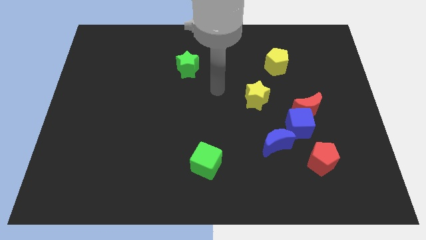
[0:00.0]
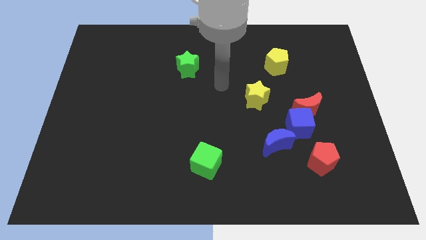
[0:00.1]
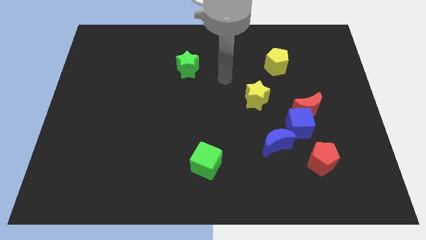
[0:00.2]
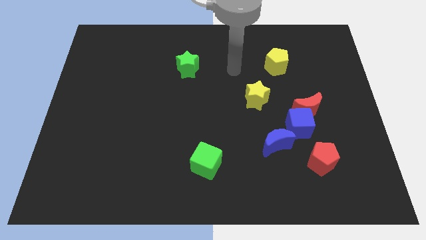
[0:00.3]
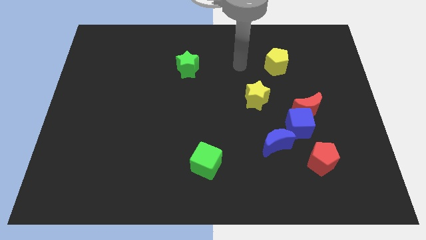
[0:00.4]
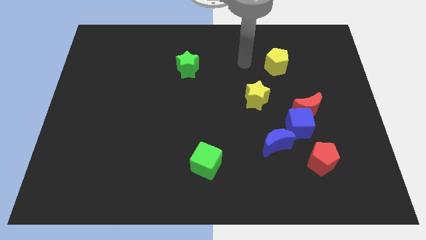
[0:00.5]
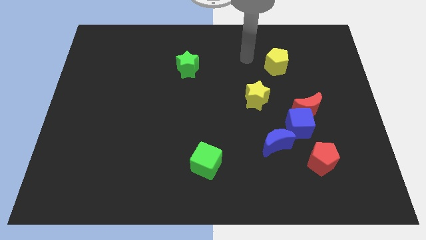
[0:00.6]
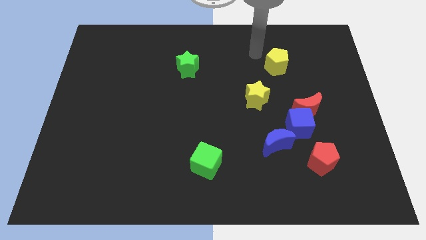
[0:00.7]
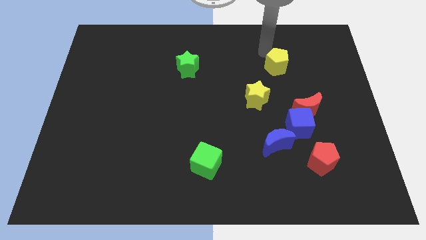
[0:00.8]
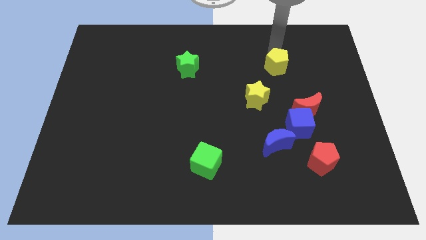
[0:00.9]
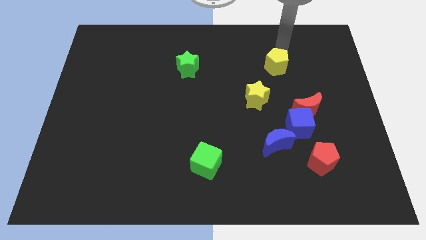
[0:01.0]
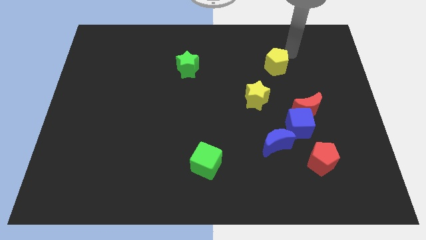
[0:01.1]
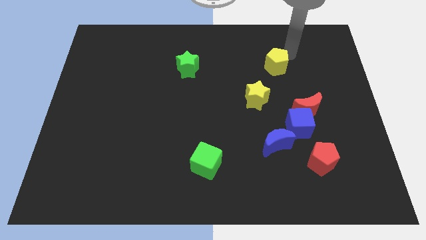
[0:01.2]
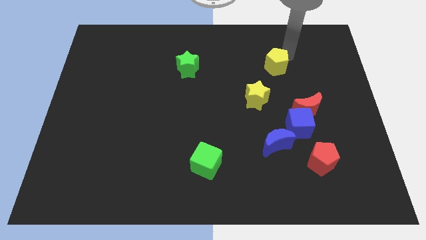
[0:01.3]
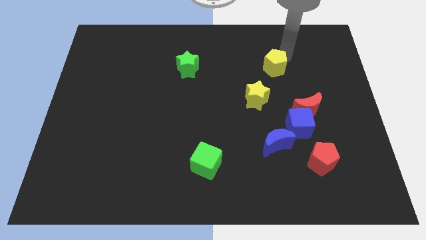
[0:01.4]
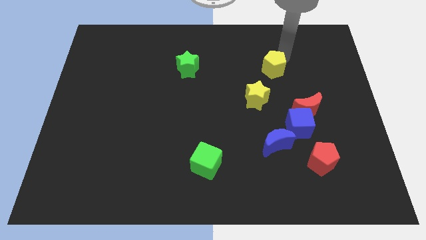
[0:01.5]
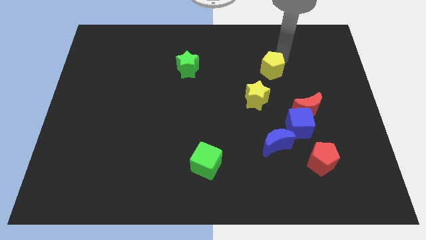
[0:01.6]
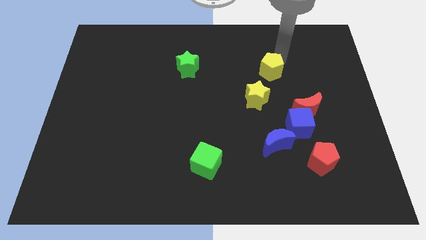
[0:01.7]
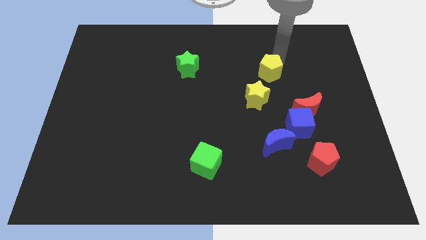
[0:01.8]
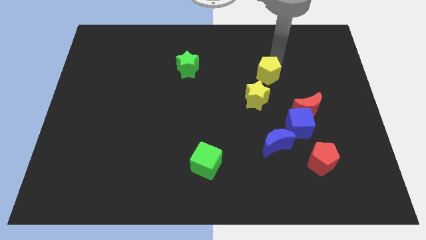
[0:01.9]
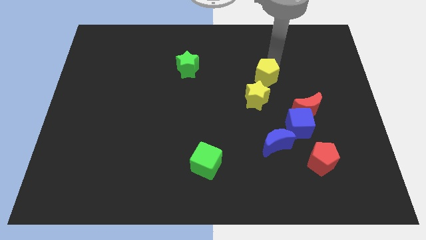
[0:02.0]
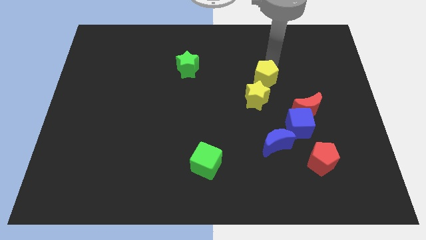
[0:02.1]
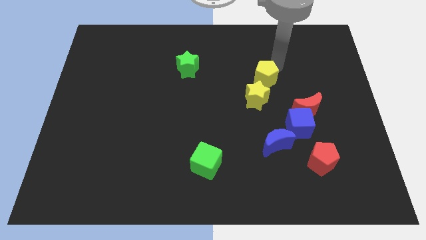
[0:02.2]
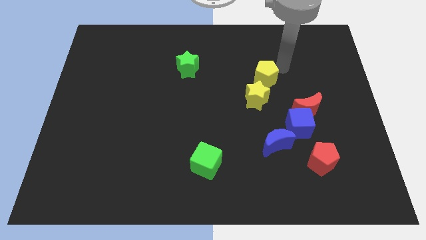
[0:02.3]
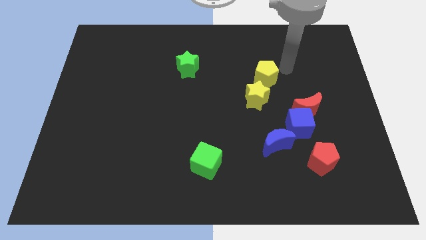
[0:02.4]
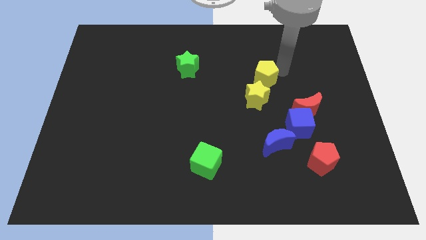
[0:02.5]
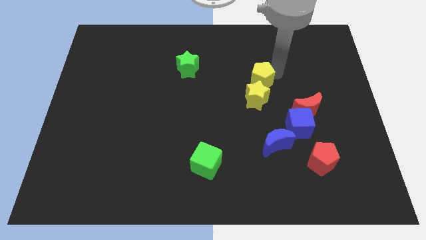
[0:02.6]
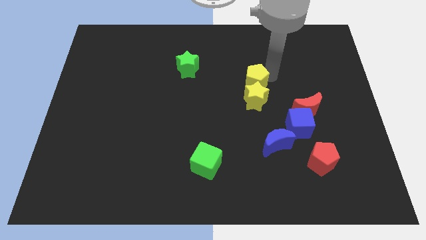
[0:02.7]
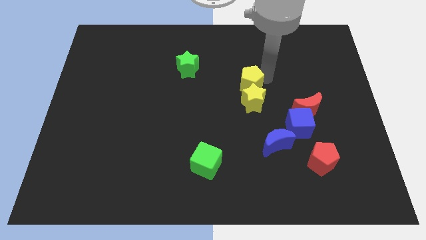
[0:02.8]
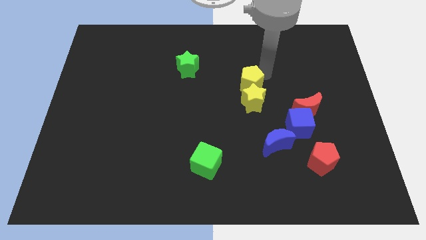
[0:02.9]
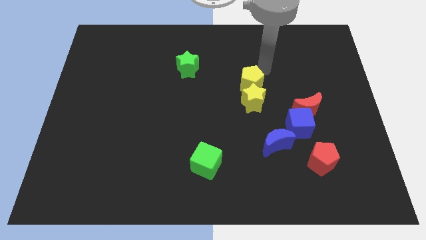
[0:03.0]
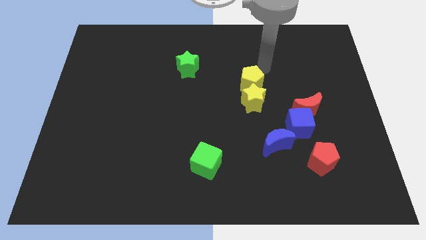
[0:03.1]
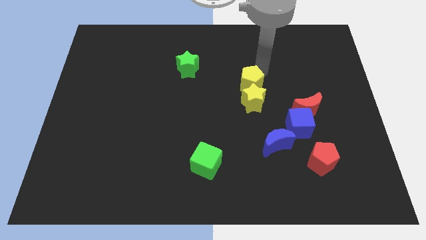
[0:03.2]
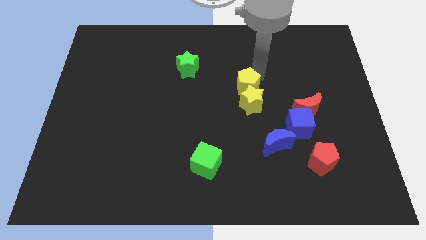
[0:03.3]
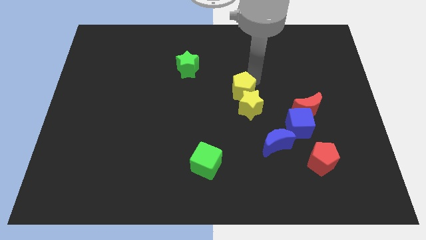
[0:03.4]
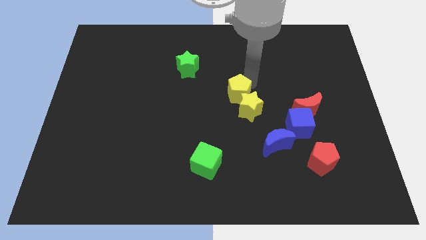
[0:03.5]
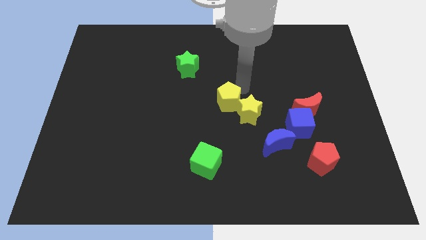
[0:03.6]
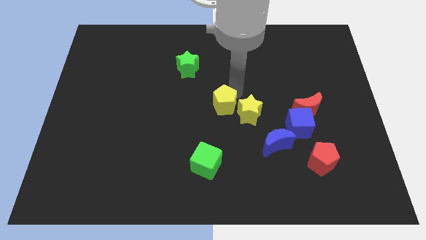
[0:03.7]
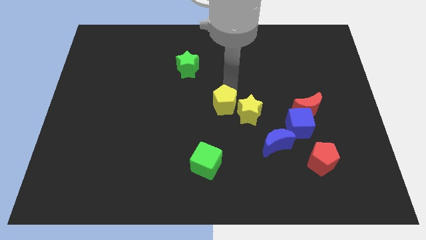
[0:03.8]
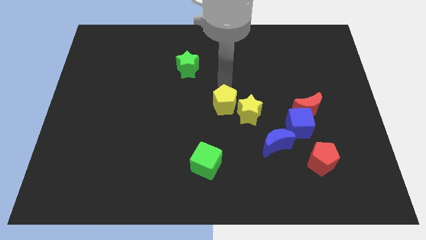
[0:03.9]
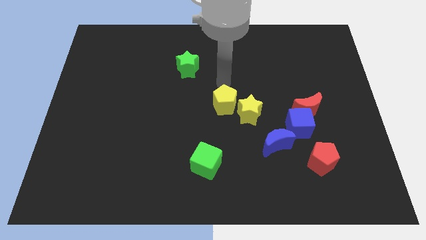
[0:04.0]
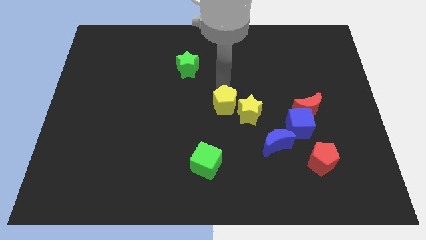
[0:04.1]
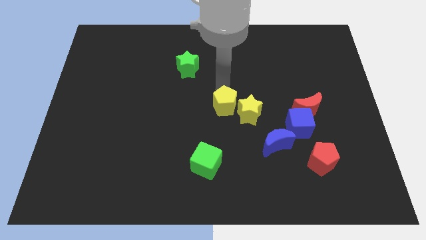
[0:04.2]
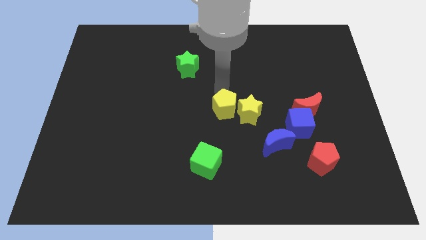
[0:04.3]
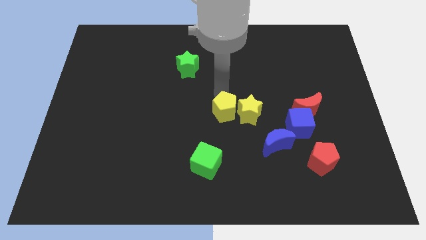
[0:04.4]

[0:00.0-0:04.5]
push the yellow pentagon diagonally down and to the left of the yellow star

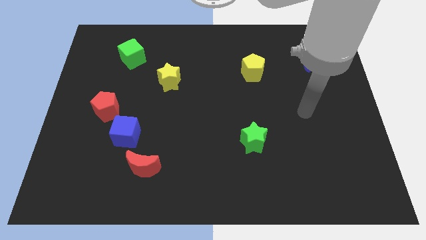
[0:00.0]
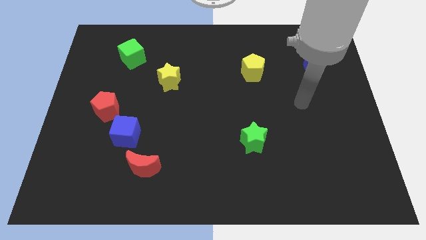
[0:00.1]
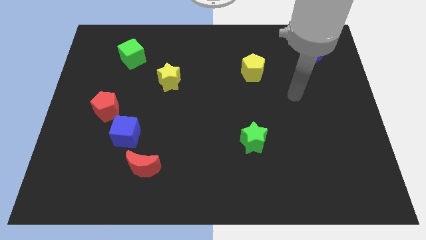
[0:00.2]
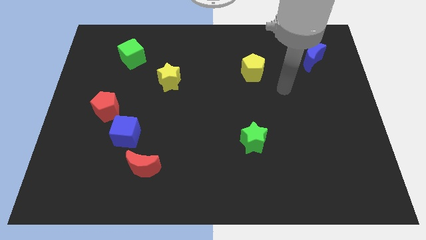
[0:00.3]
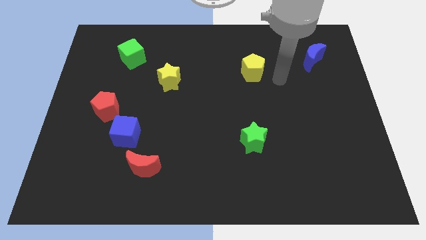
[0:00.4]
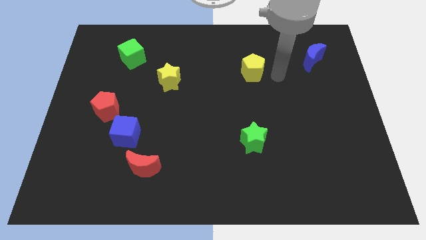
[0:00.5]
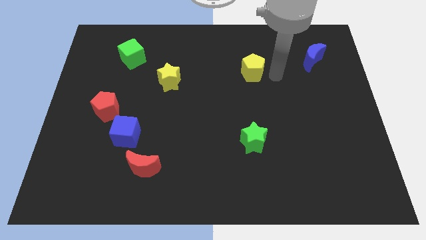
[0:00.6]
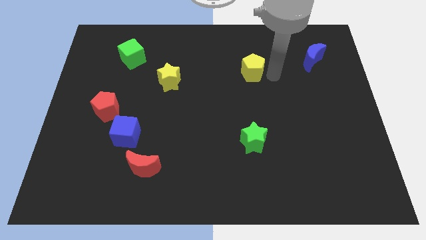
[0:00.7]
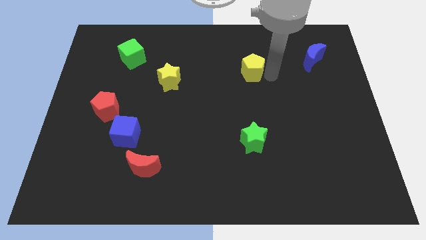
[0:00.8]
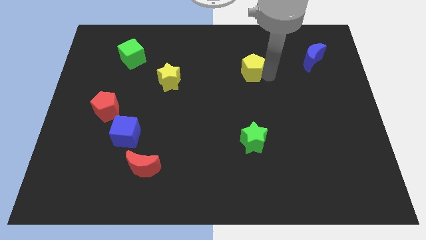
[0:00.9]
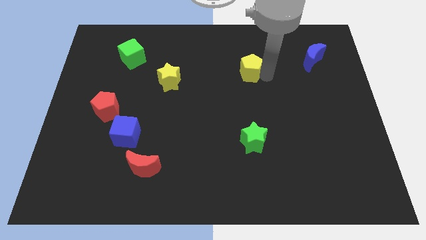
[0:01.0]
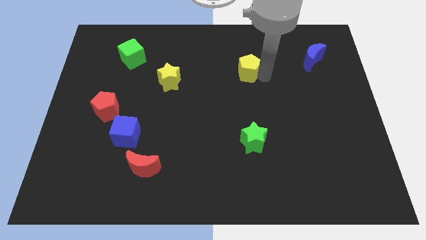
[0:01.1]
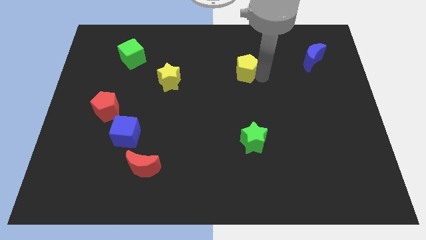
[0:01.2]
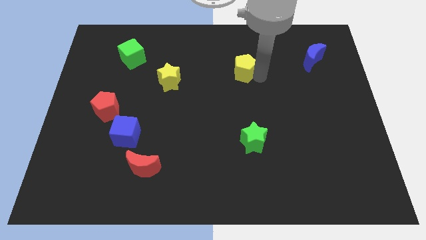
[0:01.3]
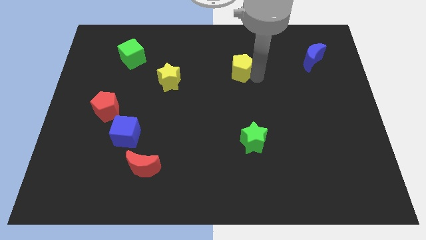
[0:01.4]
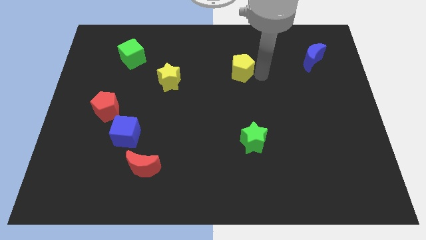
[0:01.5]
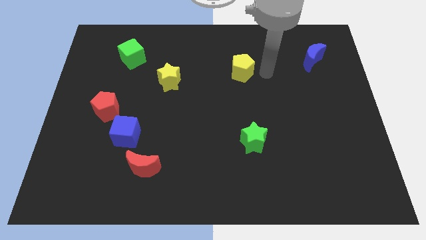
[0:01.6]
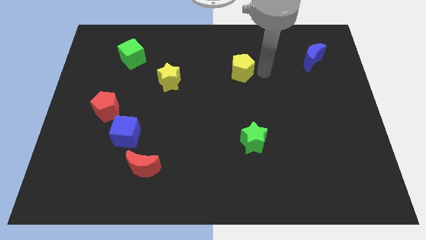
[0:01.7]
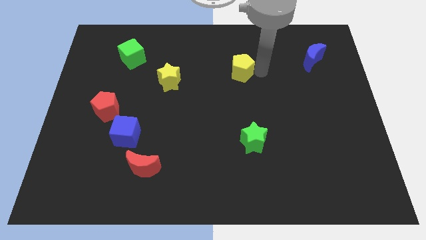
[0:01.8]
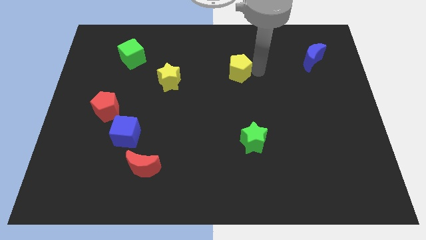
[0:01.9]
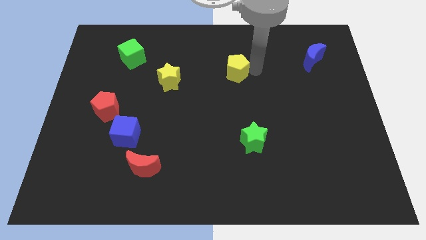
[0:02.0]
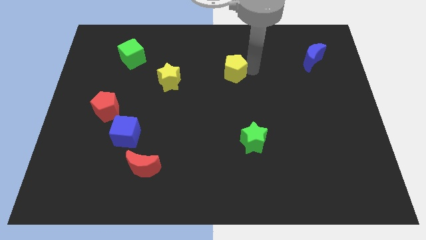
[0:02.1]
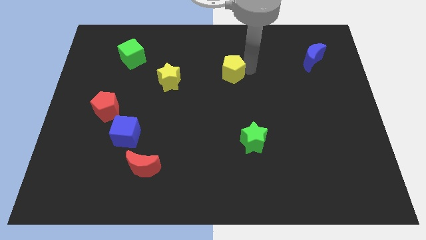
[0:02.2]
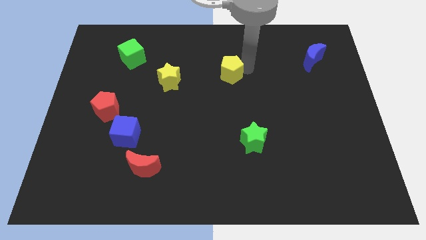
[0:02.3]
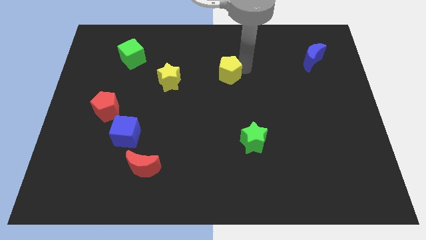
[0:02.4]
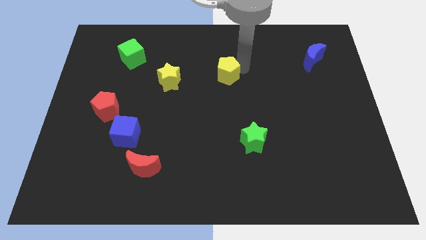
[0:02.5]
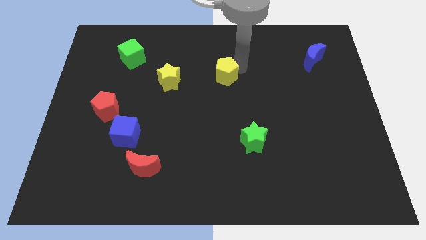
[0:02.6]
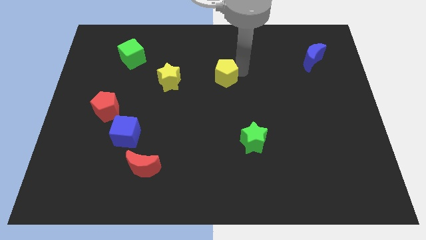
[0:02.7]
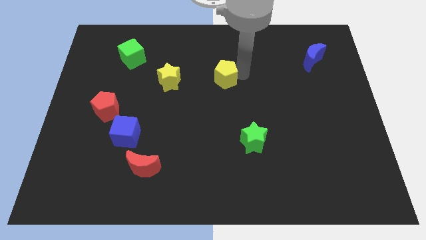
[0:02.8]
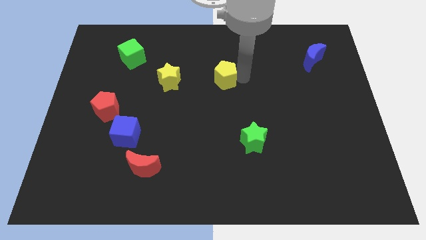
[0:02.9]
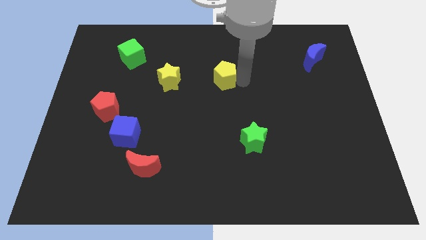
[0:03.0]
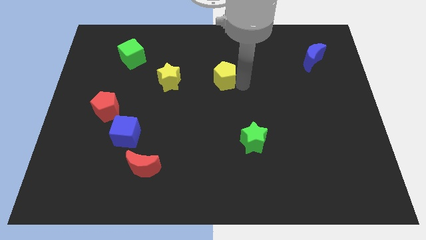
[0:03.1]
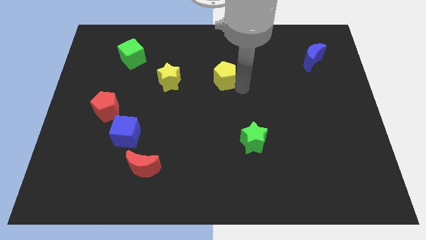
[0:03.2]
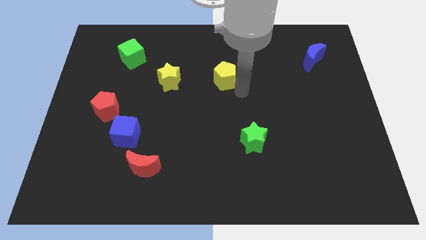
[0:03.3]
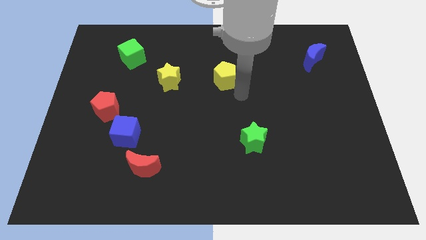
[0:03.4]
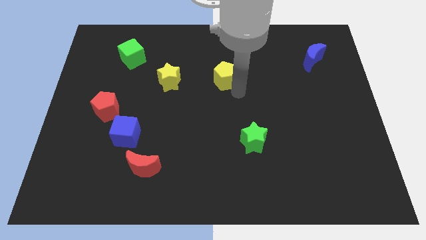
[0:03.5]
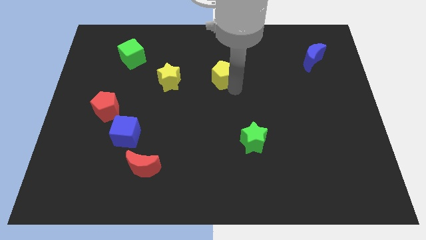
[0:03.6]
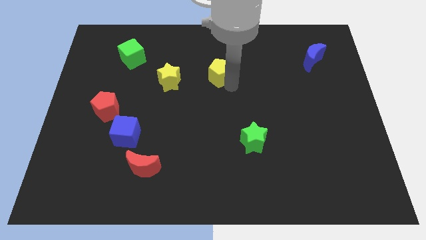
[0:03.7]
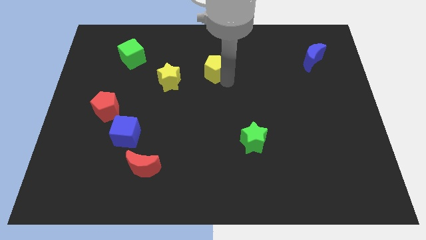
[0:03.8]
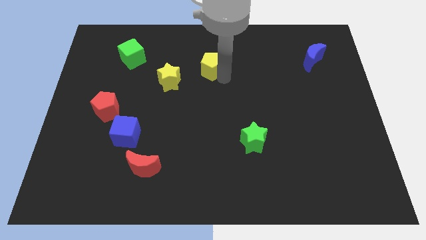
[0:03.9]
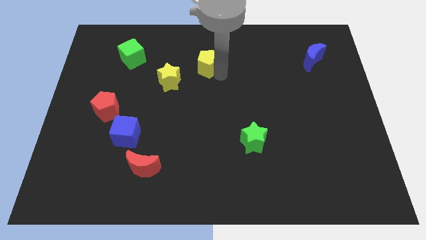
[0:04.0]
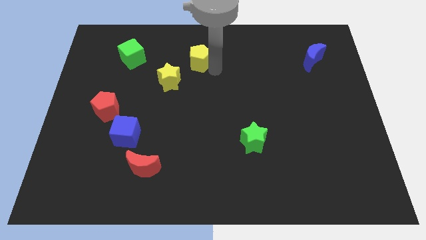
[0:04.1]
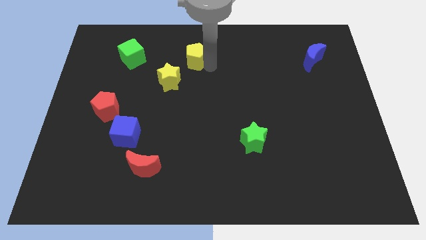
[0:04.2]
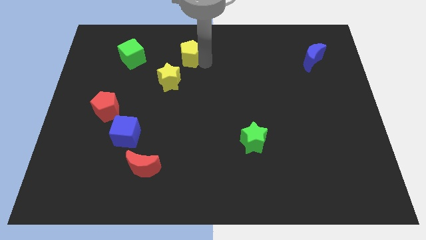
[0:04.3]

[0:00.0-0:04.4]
push the yellow pentagon to the right side of the green cube
